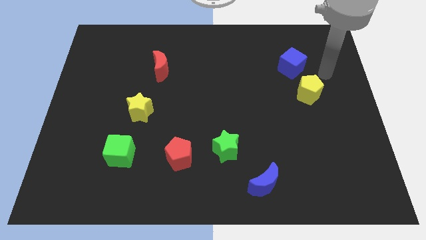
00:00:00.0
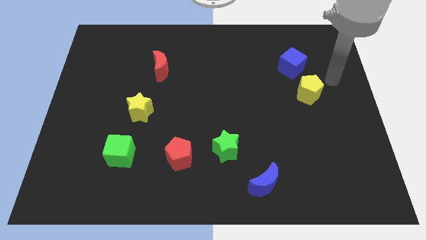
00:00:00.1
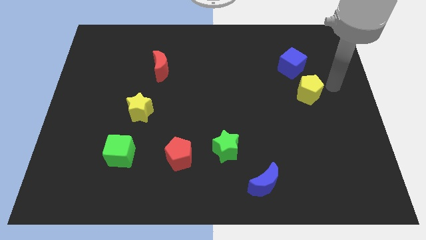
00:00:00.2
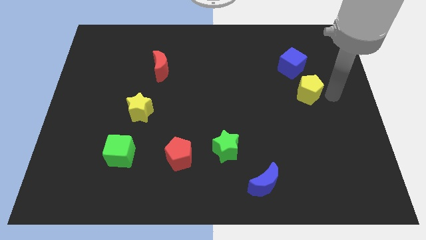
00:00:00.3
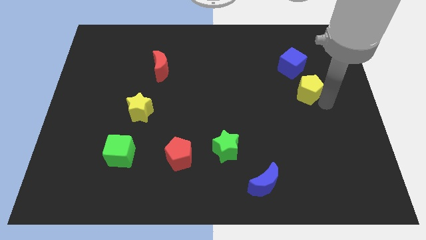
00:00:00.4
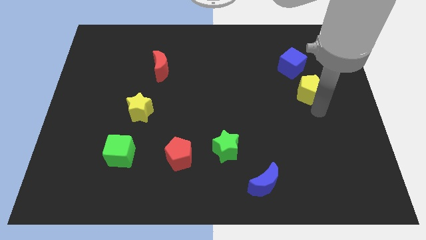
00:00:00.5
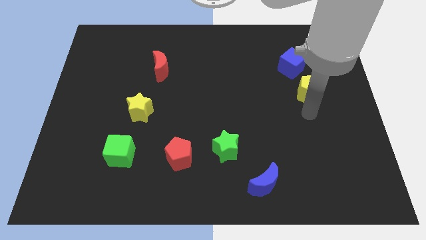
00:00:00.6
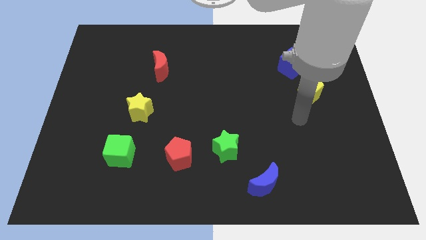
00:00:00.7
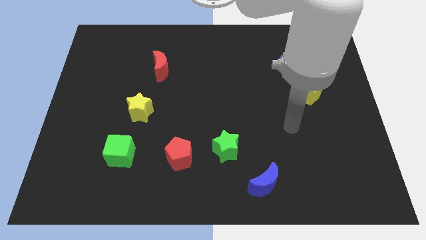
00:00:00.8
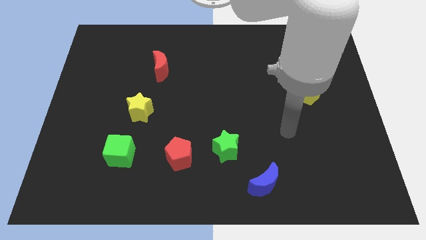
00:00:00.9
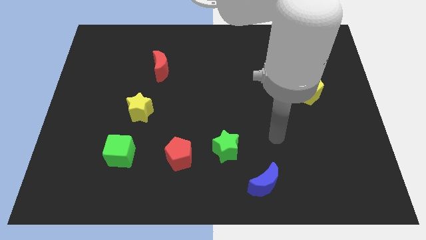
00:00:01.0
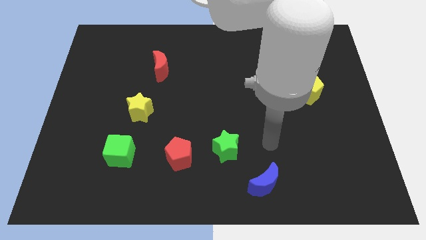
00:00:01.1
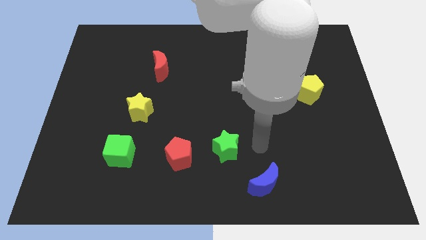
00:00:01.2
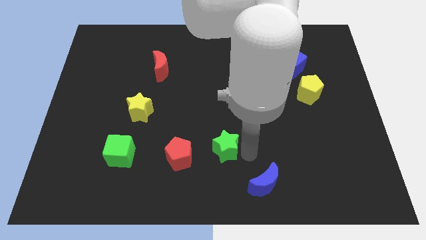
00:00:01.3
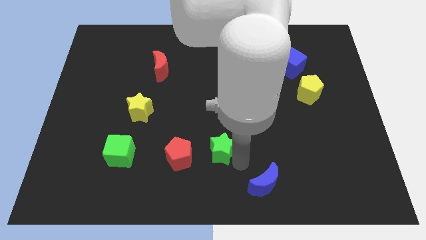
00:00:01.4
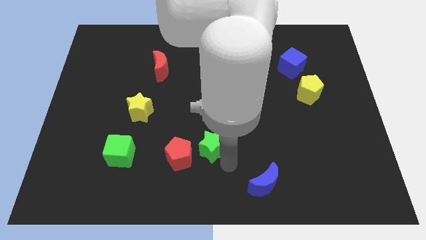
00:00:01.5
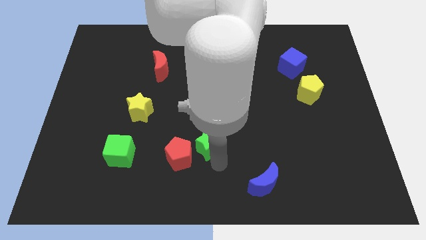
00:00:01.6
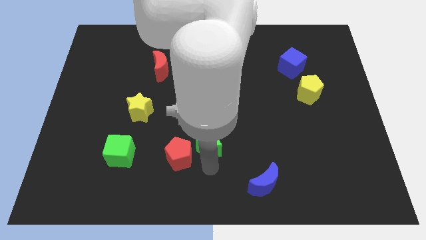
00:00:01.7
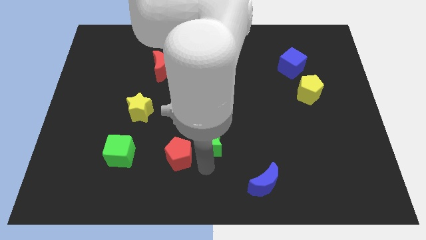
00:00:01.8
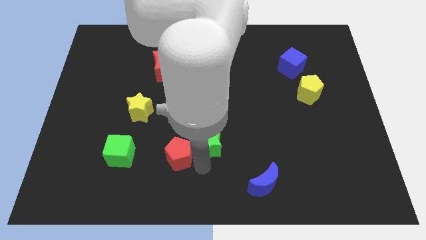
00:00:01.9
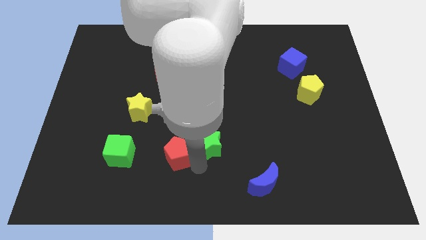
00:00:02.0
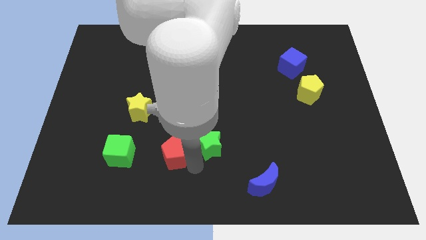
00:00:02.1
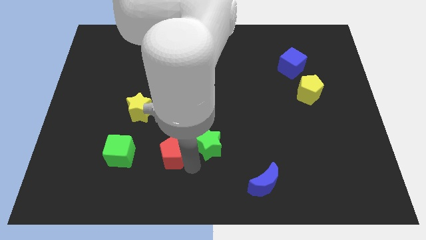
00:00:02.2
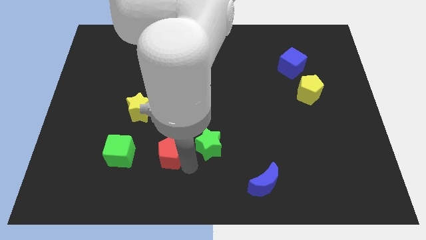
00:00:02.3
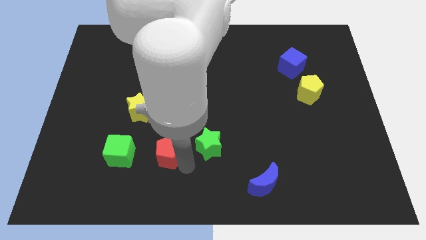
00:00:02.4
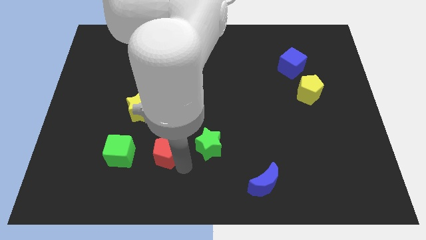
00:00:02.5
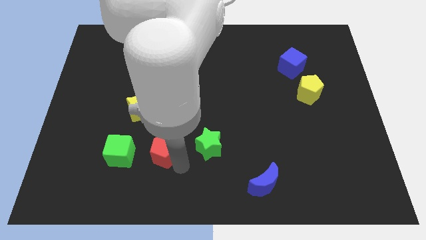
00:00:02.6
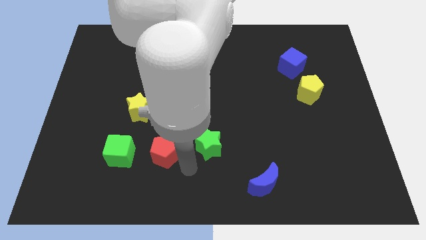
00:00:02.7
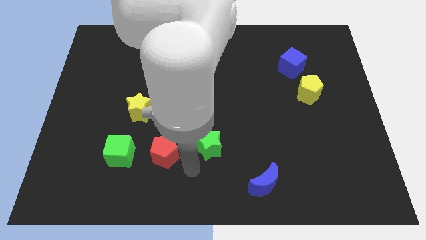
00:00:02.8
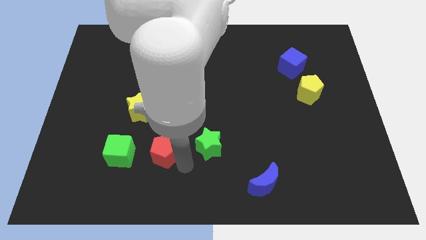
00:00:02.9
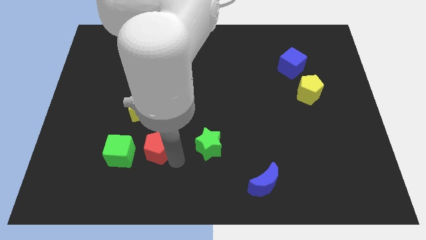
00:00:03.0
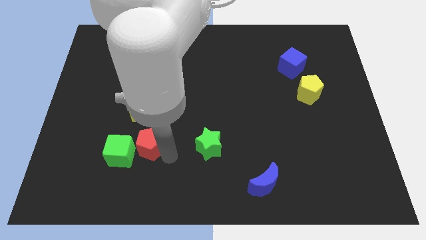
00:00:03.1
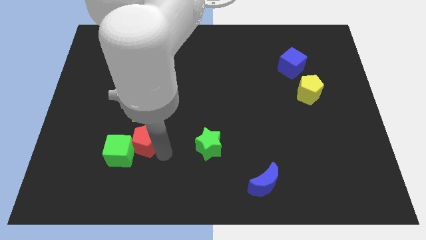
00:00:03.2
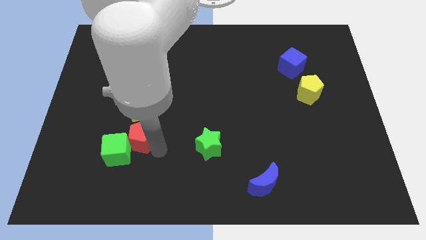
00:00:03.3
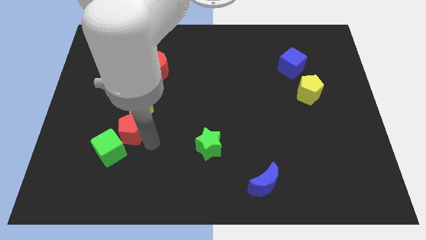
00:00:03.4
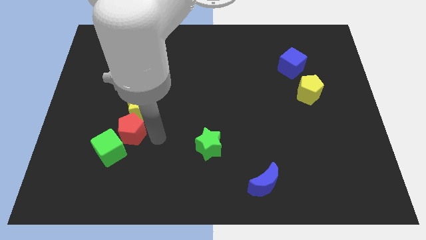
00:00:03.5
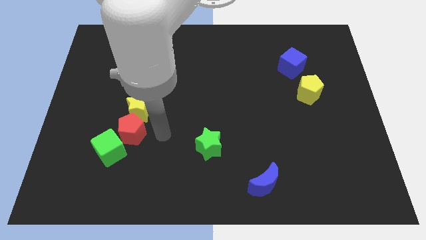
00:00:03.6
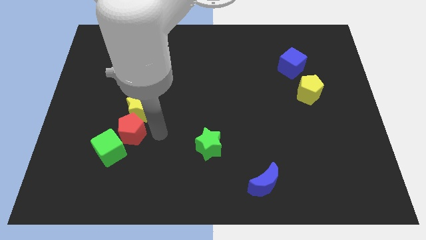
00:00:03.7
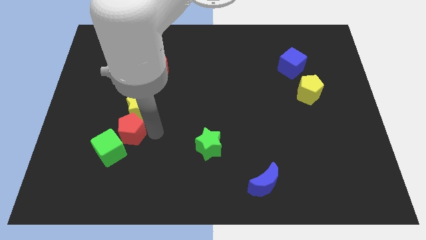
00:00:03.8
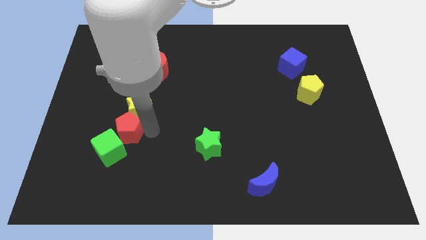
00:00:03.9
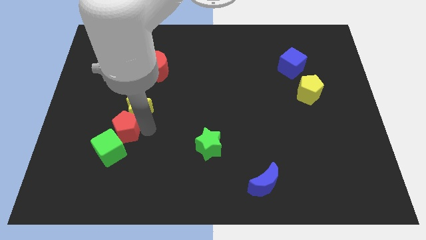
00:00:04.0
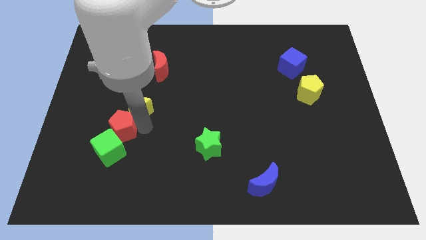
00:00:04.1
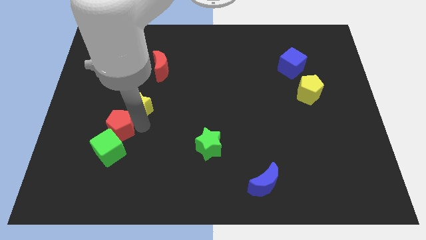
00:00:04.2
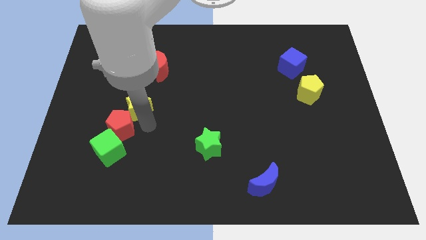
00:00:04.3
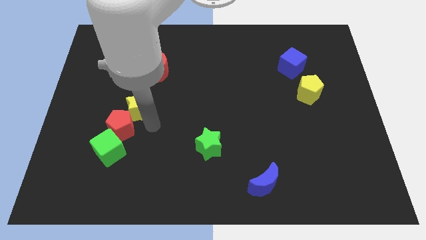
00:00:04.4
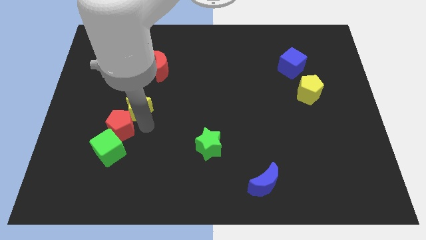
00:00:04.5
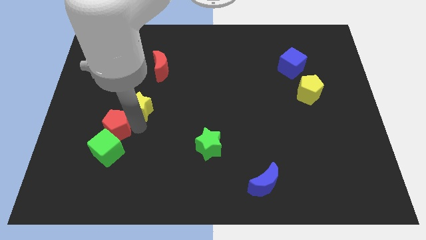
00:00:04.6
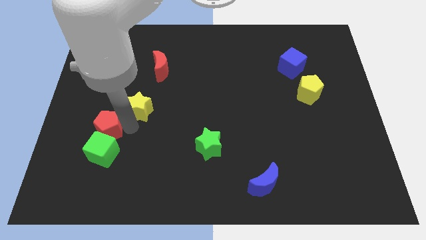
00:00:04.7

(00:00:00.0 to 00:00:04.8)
slide the red pentagon diagonally up and to the left of the green cube

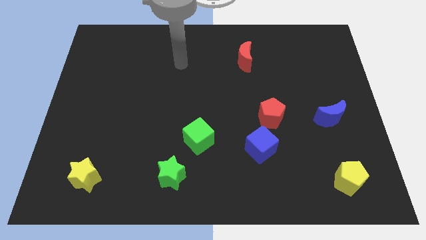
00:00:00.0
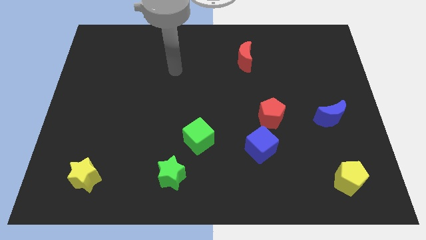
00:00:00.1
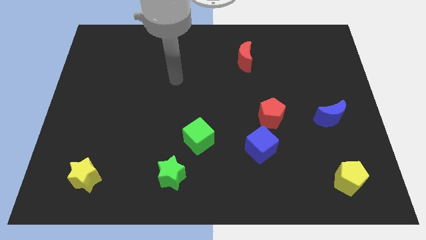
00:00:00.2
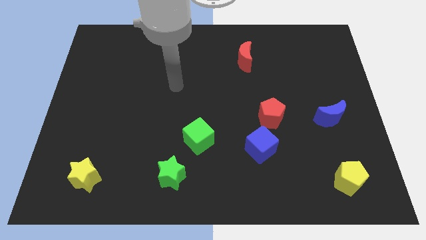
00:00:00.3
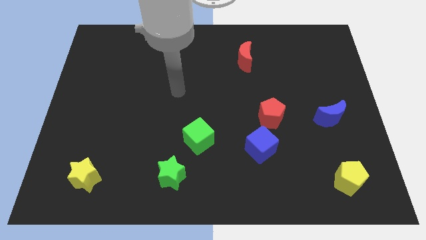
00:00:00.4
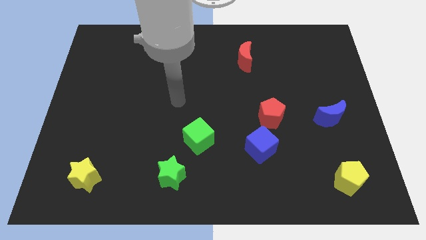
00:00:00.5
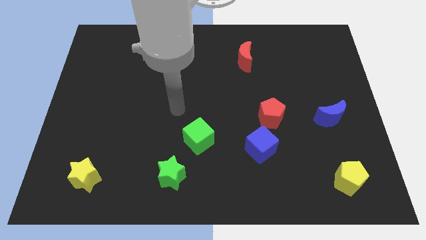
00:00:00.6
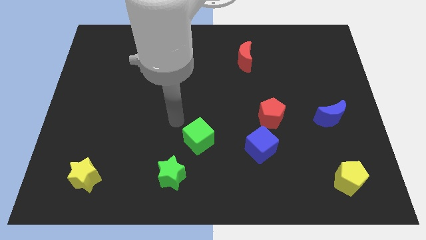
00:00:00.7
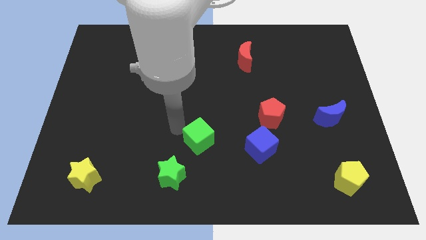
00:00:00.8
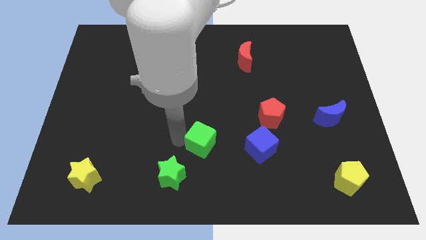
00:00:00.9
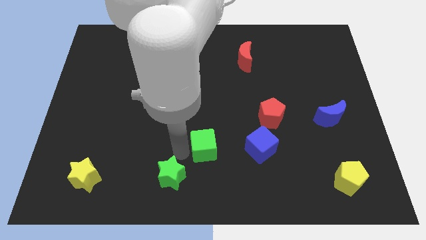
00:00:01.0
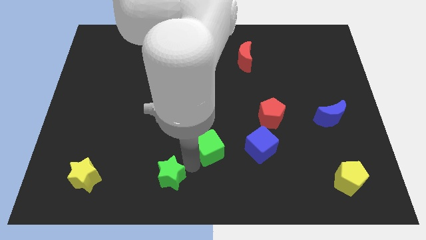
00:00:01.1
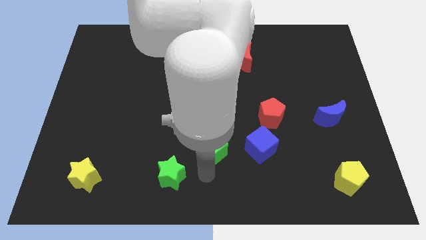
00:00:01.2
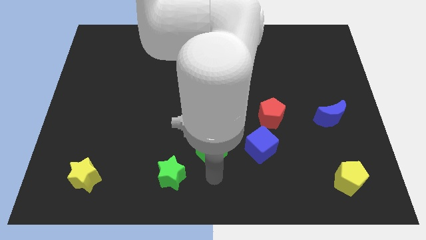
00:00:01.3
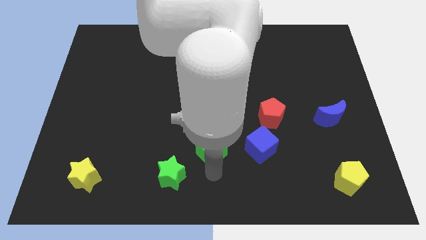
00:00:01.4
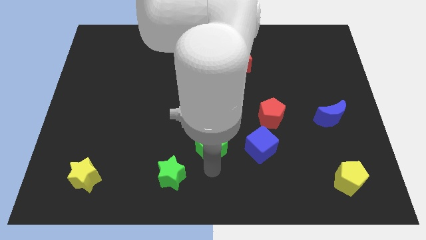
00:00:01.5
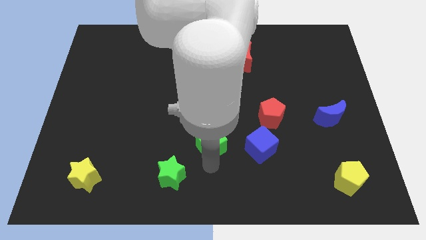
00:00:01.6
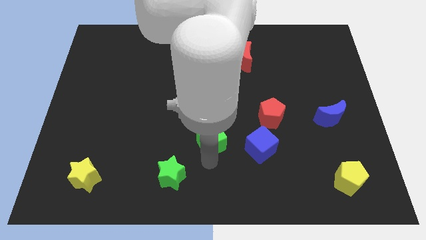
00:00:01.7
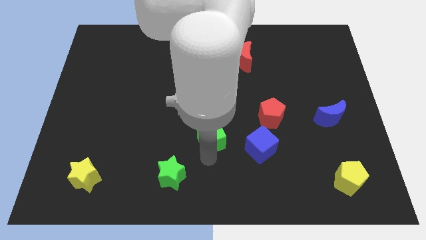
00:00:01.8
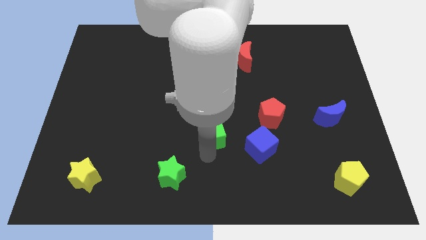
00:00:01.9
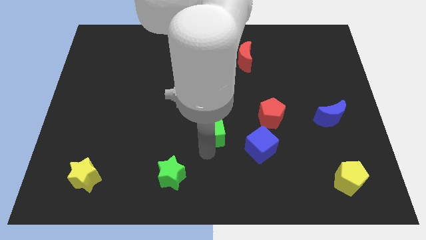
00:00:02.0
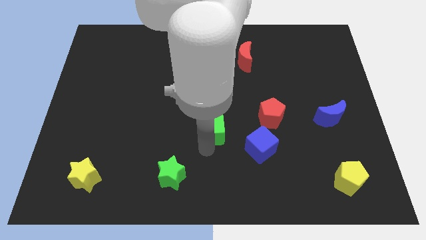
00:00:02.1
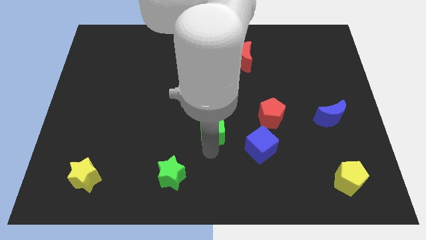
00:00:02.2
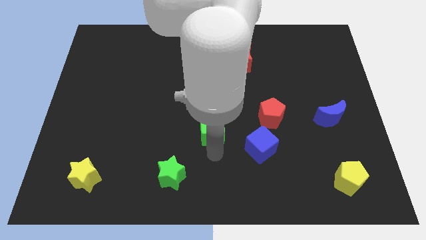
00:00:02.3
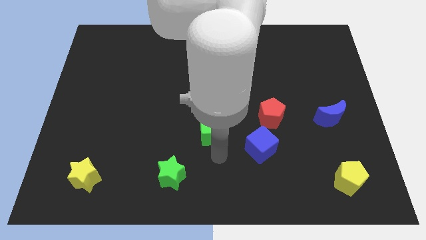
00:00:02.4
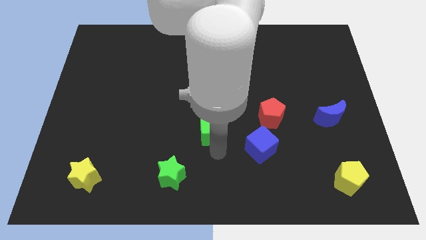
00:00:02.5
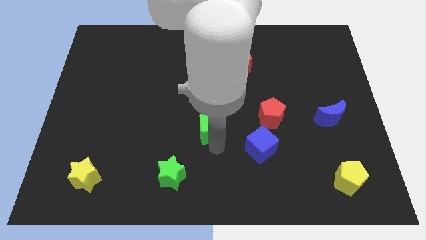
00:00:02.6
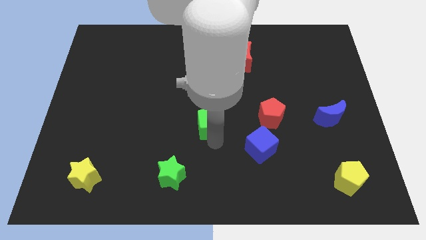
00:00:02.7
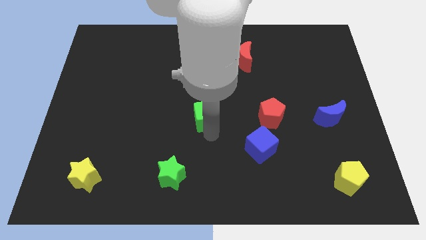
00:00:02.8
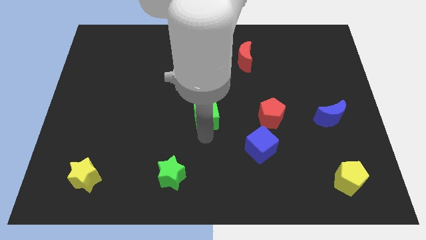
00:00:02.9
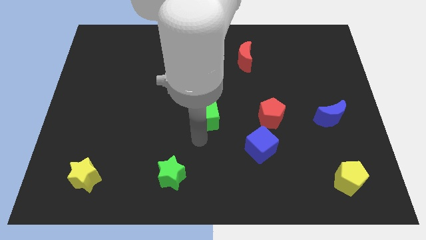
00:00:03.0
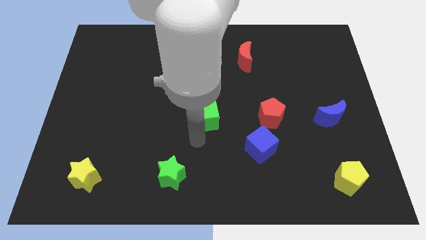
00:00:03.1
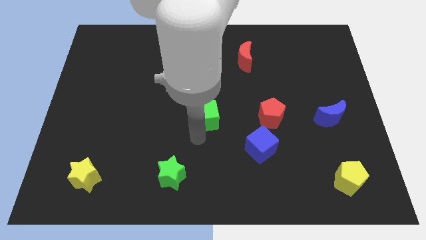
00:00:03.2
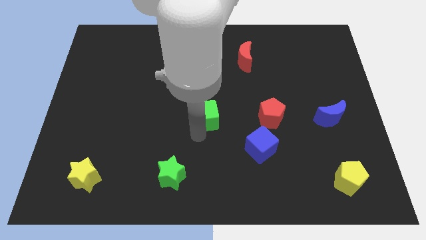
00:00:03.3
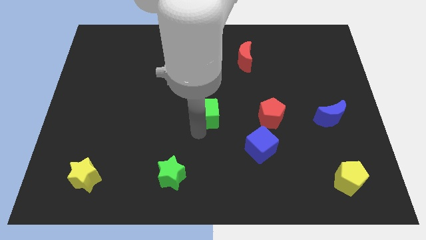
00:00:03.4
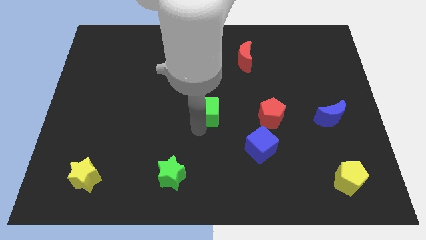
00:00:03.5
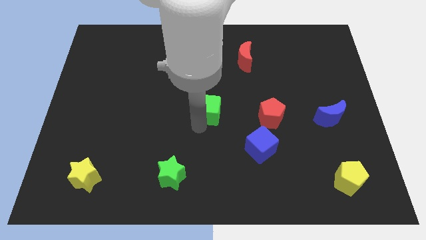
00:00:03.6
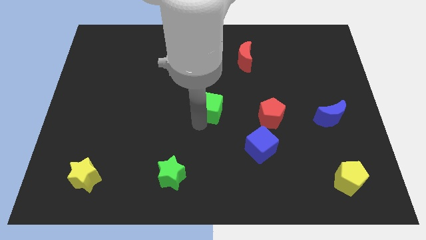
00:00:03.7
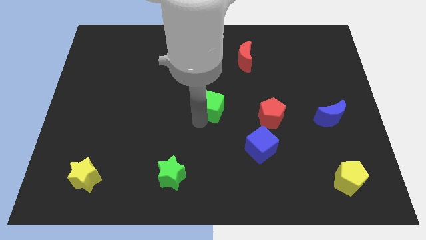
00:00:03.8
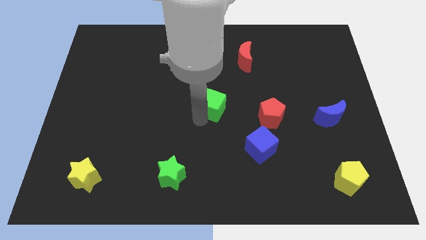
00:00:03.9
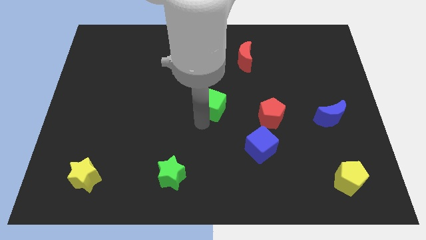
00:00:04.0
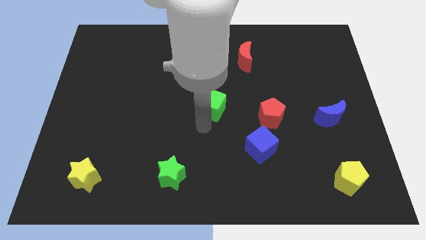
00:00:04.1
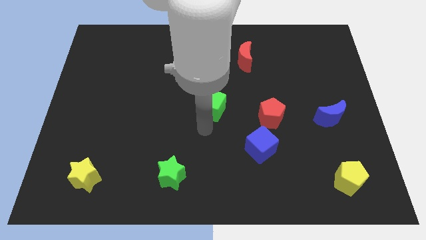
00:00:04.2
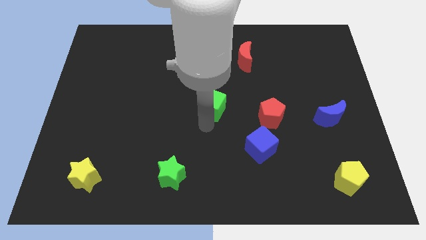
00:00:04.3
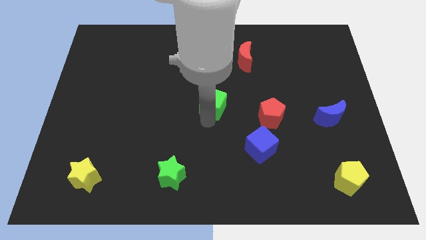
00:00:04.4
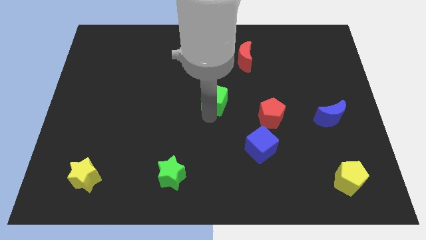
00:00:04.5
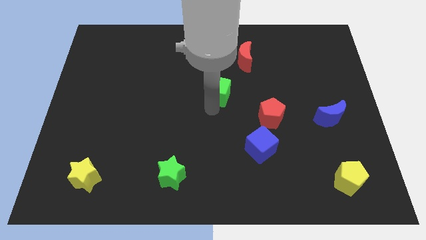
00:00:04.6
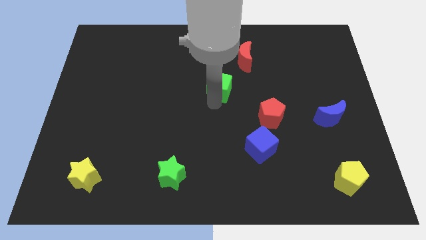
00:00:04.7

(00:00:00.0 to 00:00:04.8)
push the green cube diagonally down and to the left of the red moon
